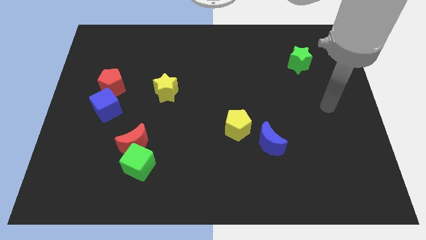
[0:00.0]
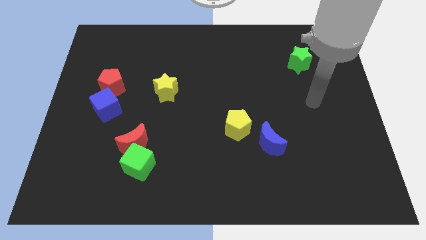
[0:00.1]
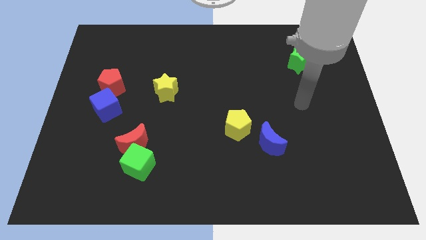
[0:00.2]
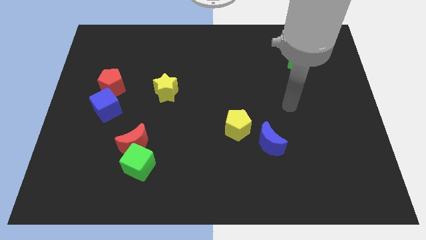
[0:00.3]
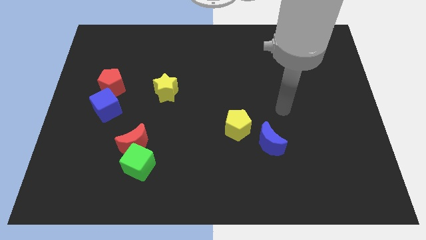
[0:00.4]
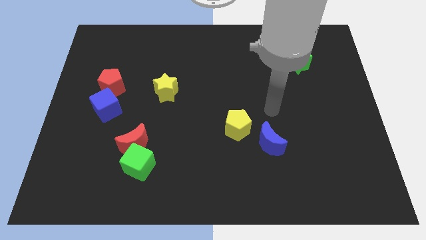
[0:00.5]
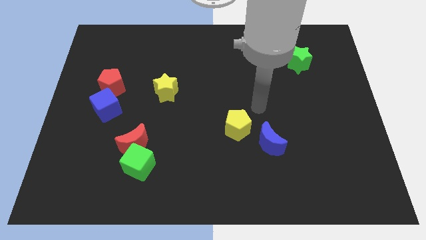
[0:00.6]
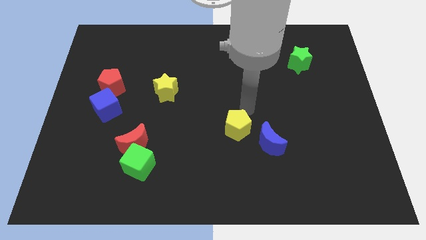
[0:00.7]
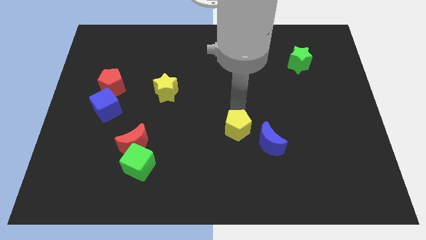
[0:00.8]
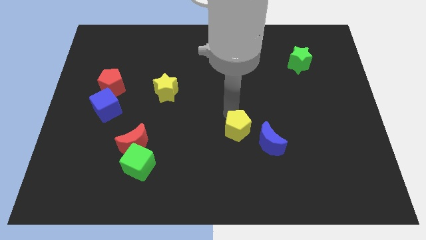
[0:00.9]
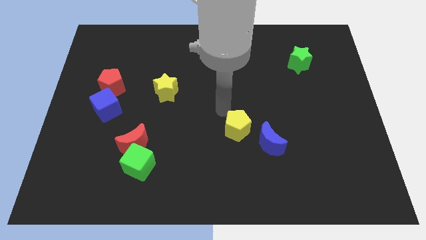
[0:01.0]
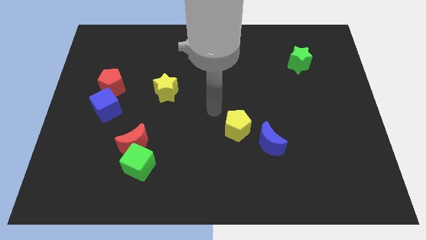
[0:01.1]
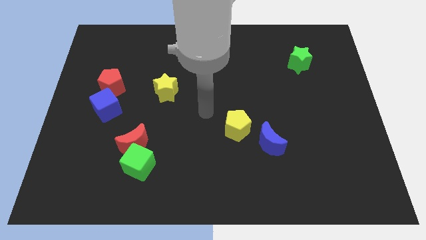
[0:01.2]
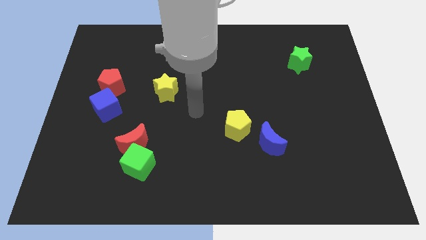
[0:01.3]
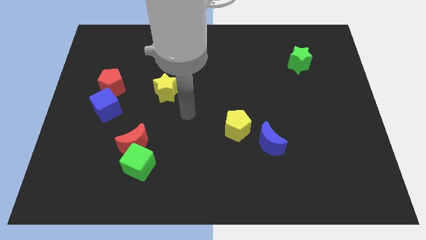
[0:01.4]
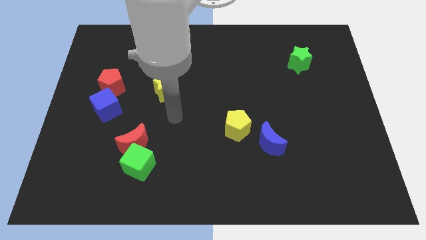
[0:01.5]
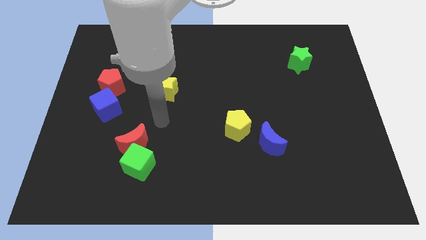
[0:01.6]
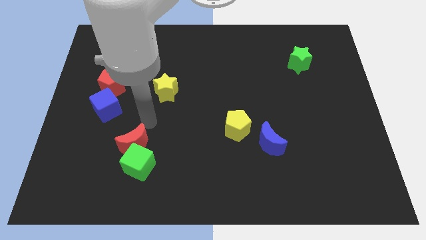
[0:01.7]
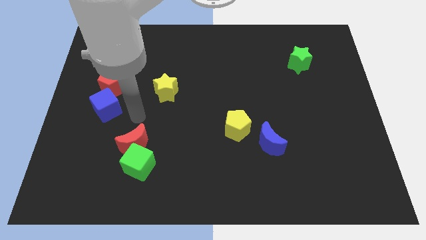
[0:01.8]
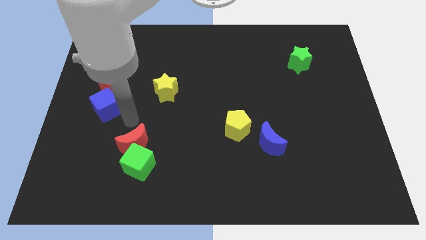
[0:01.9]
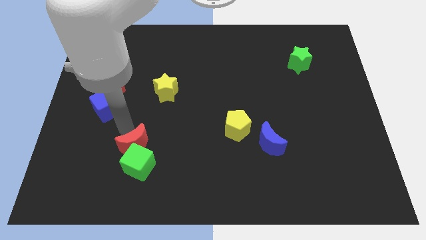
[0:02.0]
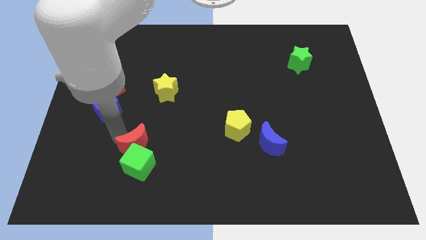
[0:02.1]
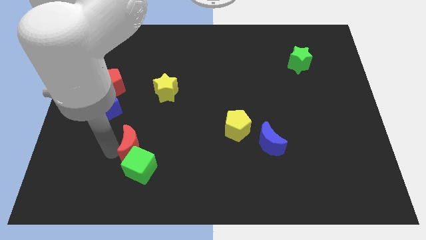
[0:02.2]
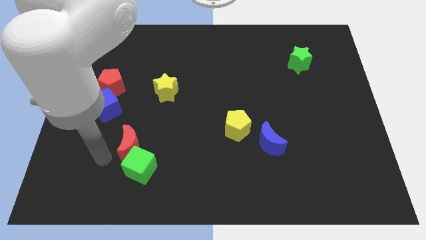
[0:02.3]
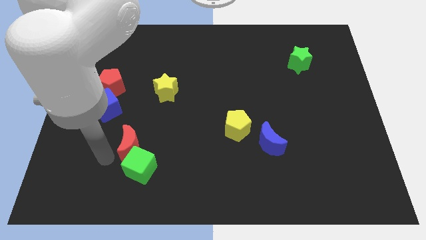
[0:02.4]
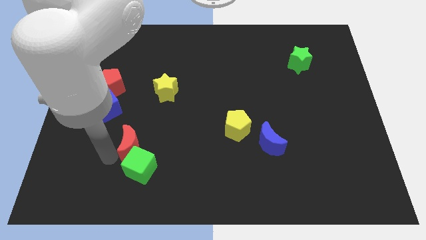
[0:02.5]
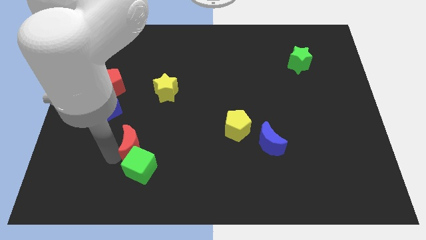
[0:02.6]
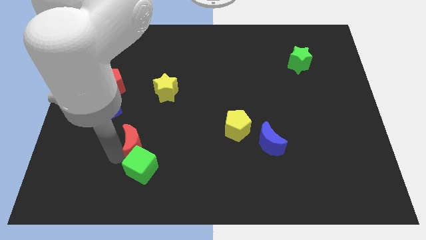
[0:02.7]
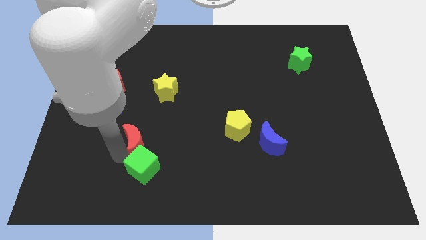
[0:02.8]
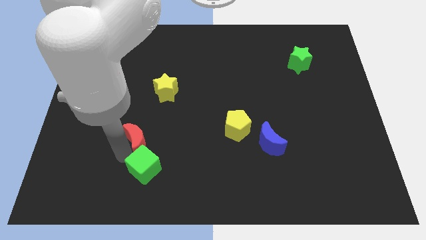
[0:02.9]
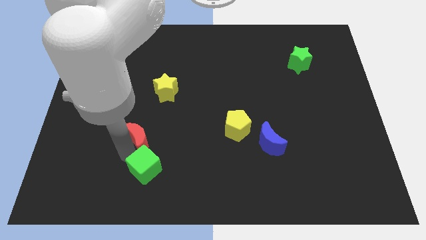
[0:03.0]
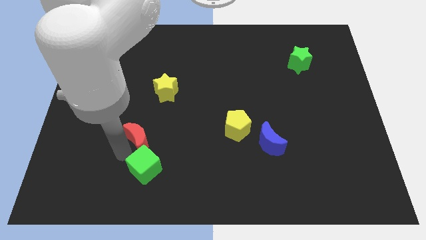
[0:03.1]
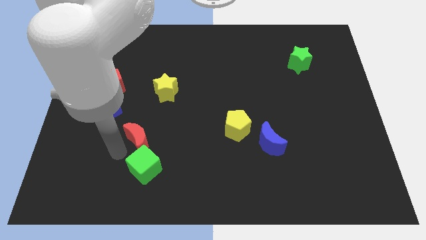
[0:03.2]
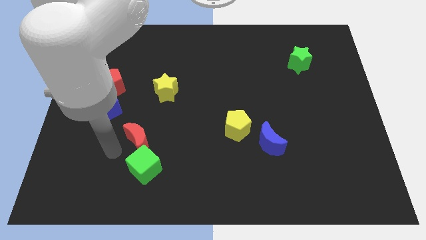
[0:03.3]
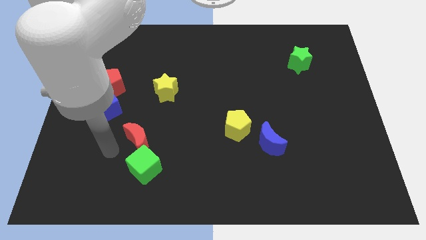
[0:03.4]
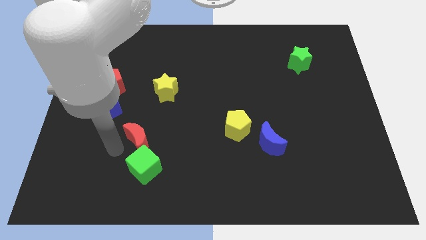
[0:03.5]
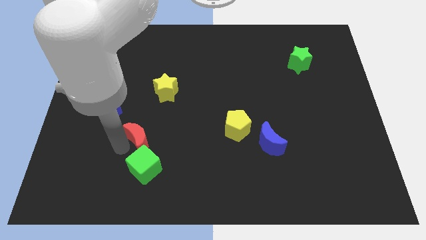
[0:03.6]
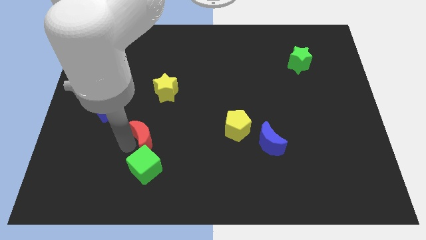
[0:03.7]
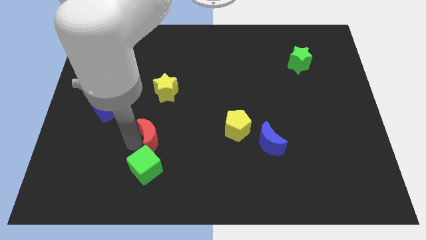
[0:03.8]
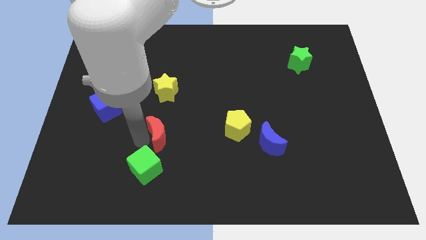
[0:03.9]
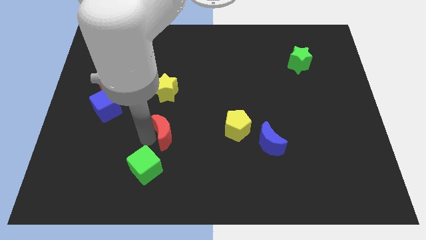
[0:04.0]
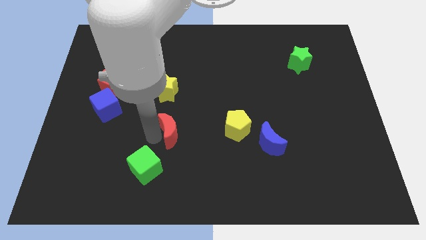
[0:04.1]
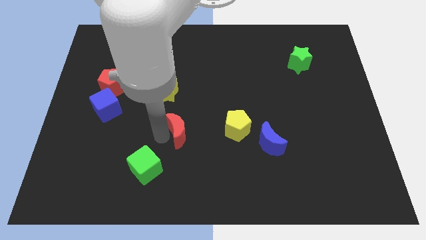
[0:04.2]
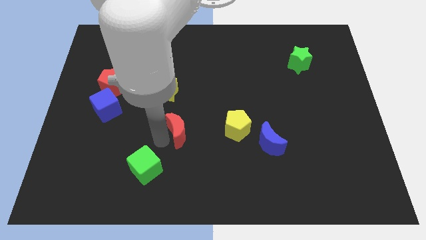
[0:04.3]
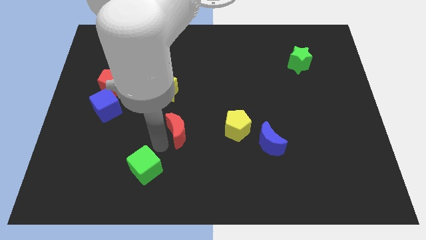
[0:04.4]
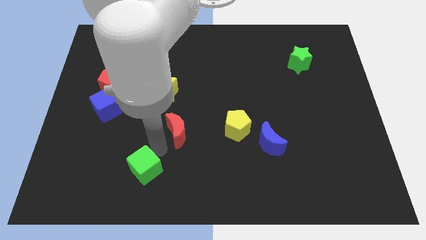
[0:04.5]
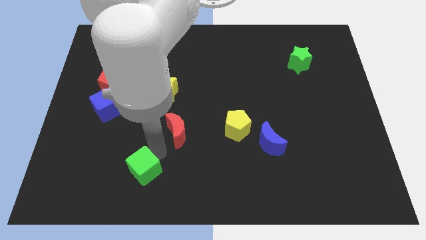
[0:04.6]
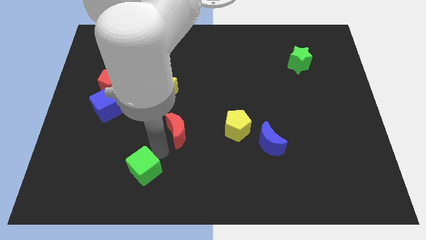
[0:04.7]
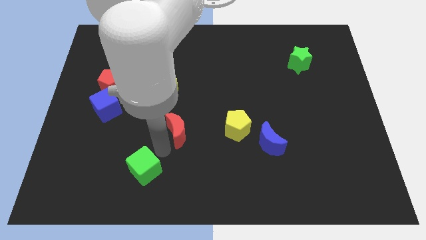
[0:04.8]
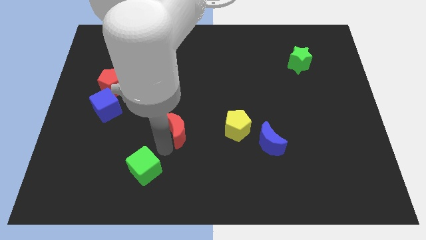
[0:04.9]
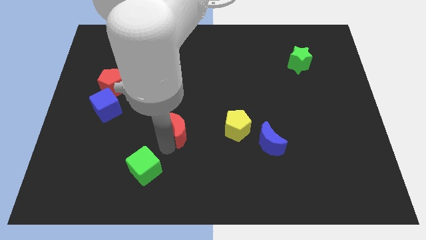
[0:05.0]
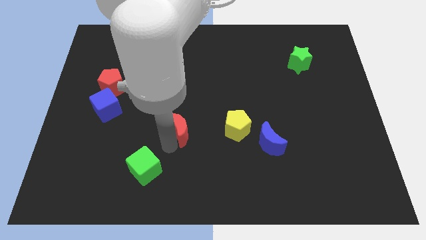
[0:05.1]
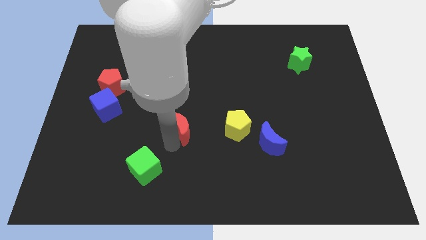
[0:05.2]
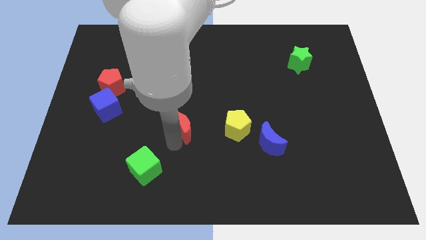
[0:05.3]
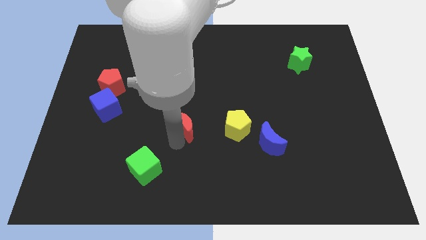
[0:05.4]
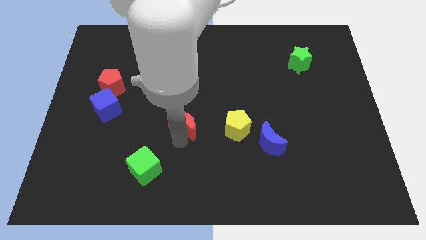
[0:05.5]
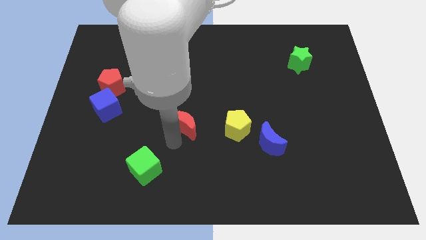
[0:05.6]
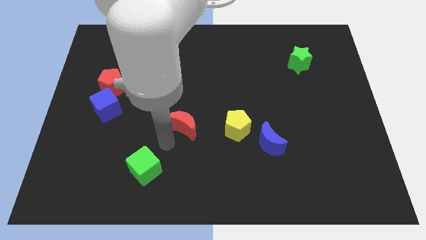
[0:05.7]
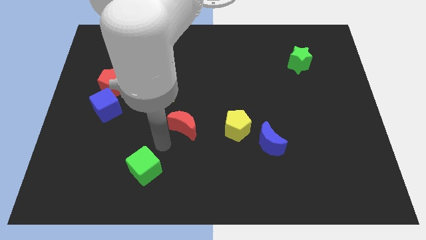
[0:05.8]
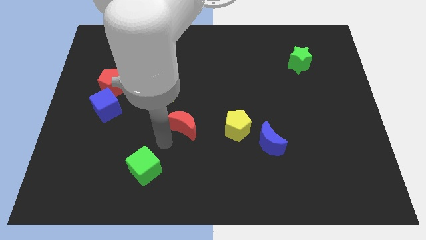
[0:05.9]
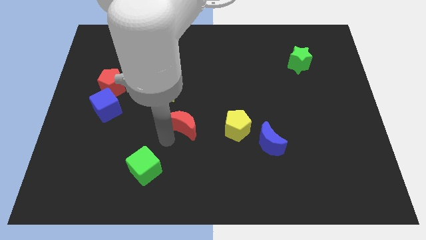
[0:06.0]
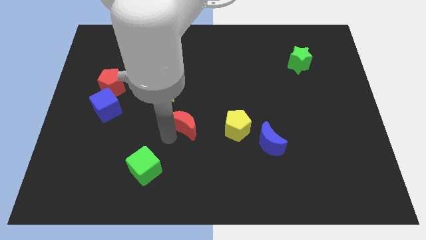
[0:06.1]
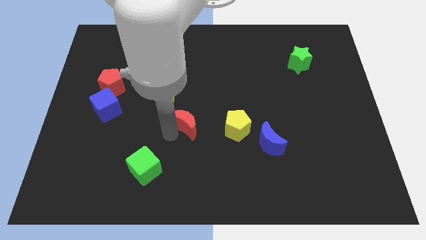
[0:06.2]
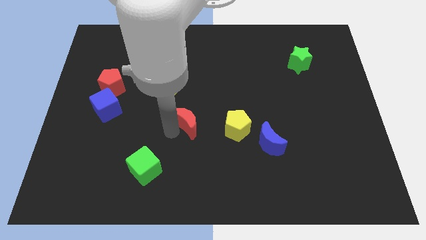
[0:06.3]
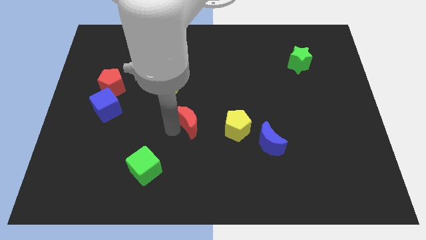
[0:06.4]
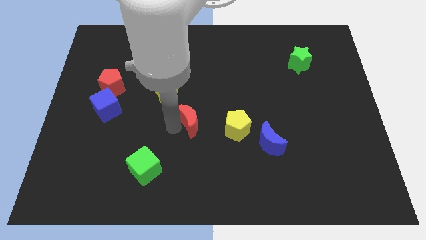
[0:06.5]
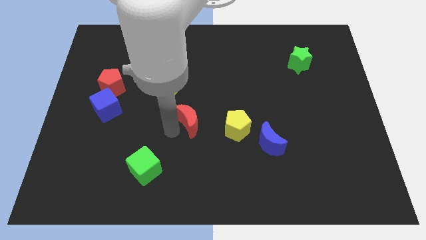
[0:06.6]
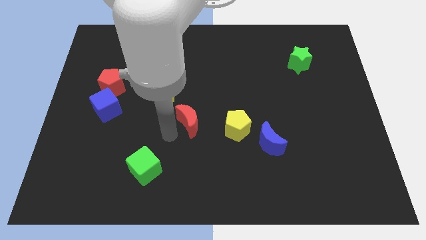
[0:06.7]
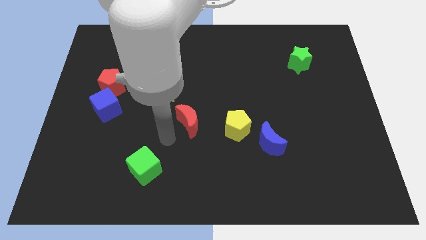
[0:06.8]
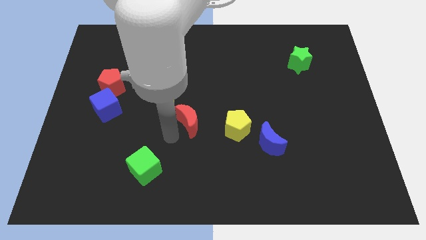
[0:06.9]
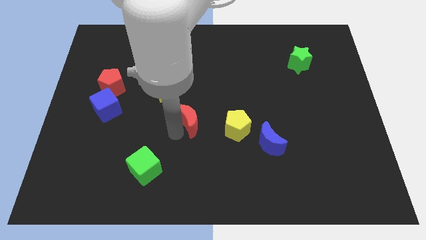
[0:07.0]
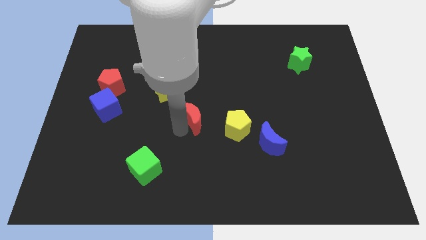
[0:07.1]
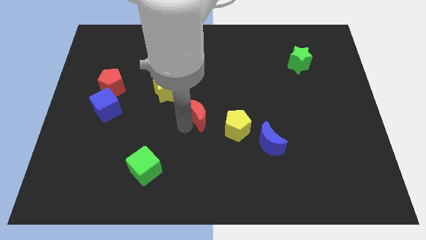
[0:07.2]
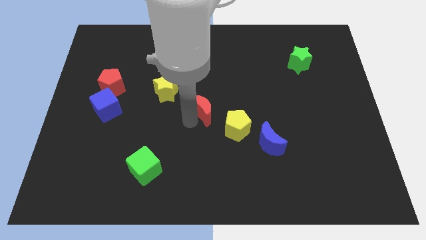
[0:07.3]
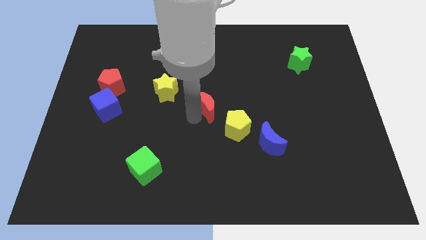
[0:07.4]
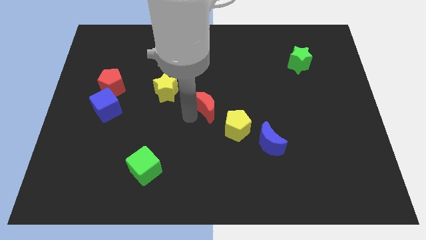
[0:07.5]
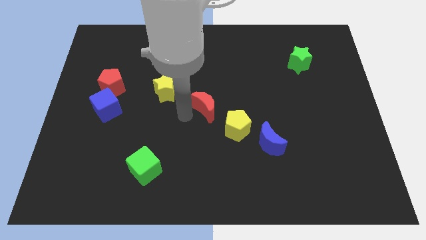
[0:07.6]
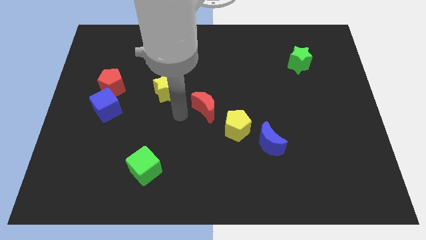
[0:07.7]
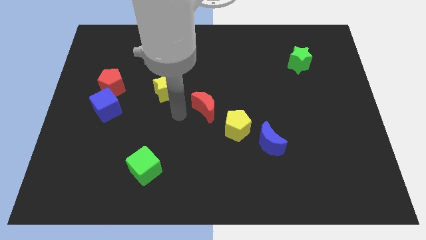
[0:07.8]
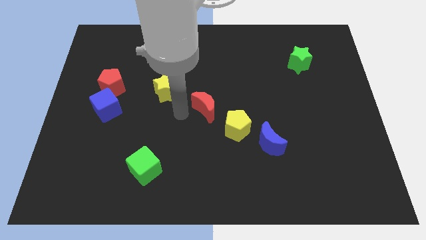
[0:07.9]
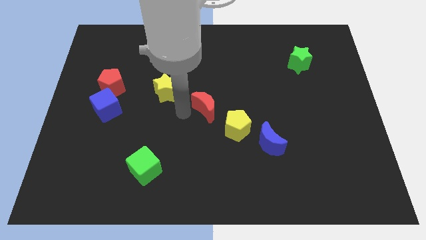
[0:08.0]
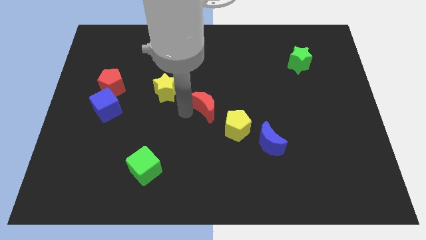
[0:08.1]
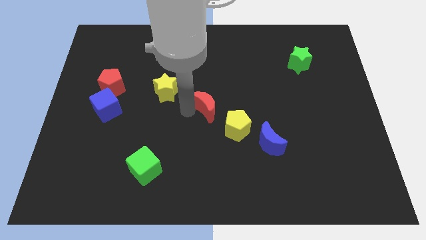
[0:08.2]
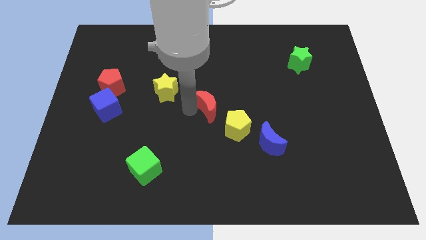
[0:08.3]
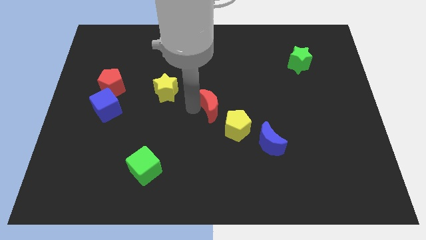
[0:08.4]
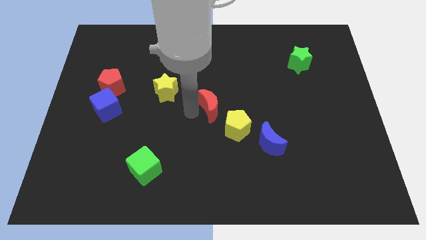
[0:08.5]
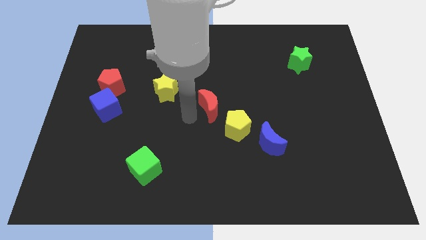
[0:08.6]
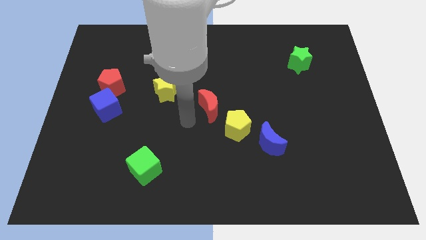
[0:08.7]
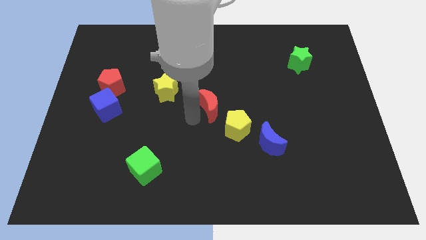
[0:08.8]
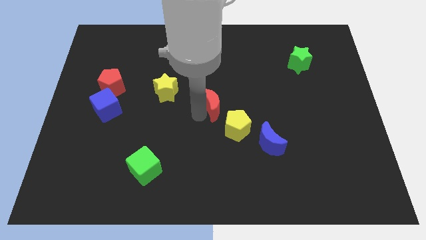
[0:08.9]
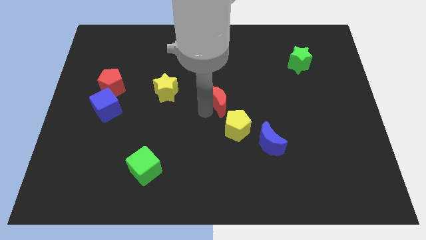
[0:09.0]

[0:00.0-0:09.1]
put the red moon above the yellow pentagon
